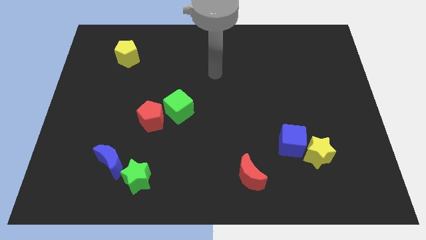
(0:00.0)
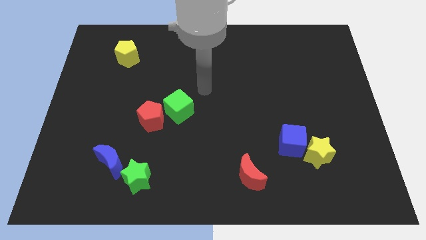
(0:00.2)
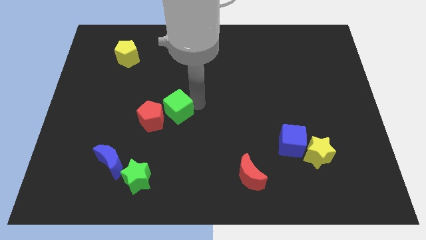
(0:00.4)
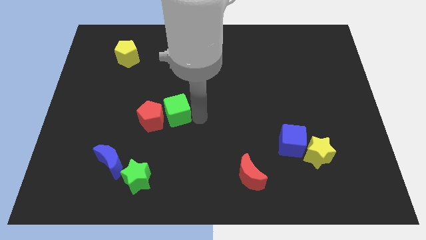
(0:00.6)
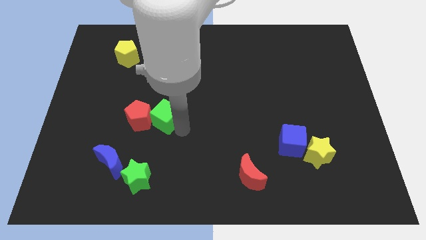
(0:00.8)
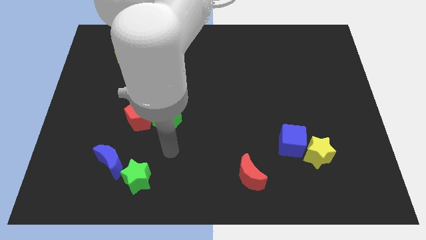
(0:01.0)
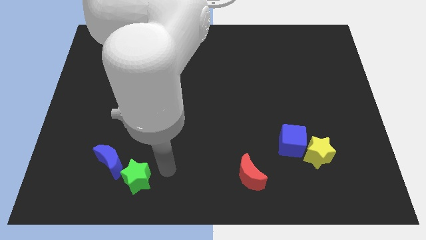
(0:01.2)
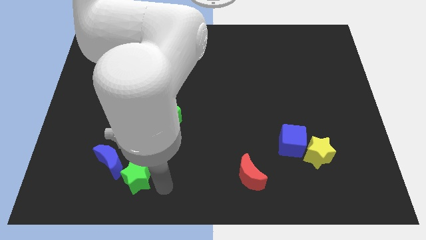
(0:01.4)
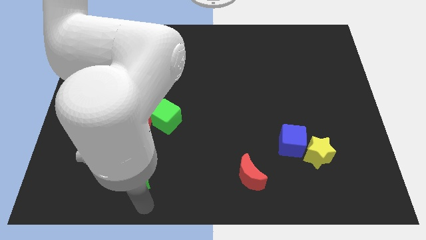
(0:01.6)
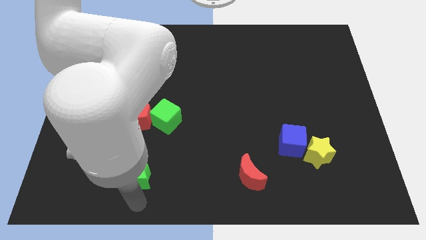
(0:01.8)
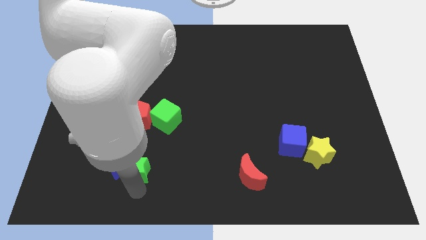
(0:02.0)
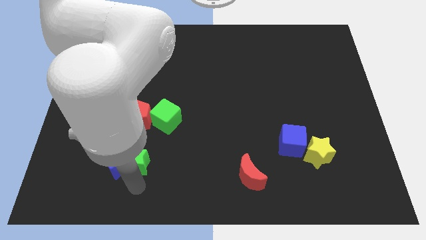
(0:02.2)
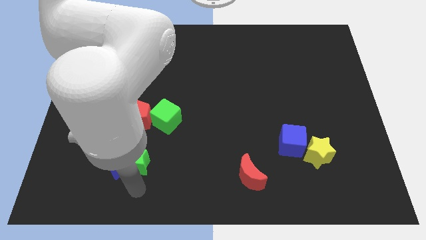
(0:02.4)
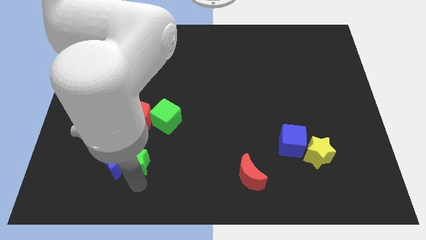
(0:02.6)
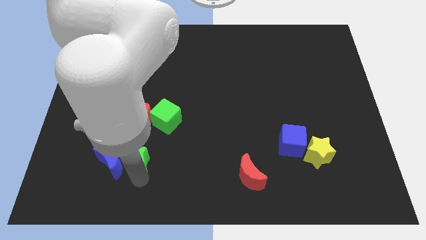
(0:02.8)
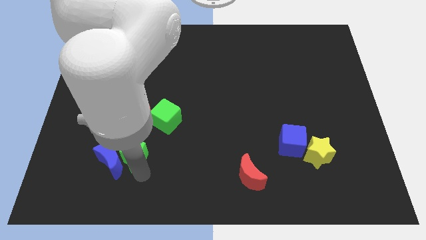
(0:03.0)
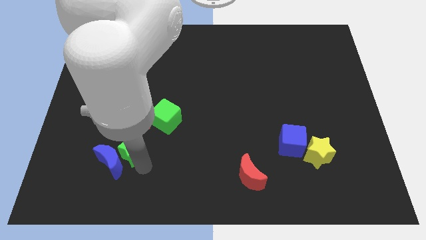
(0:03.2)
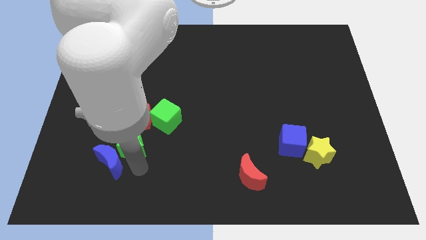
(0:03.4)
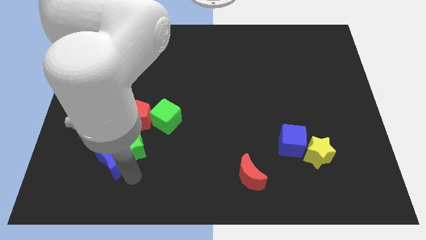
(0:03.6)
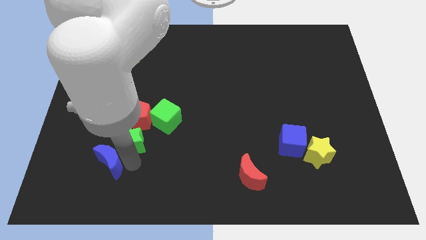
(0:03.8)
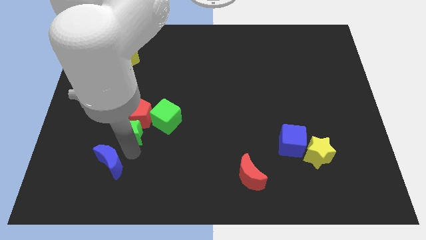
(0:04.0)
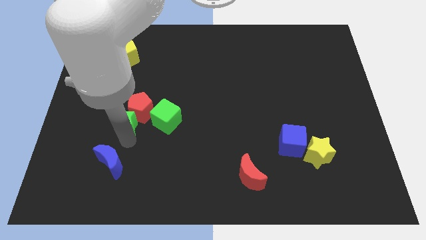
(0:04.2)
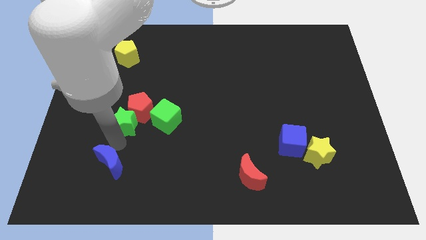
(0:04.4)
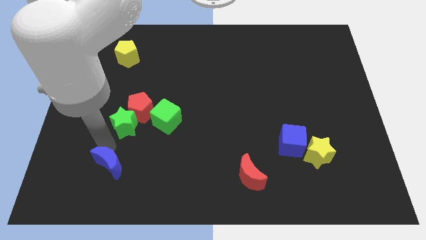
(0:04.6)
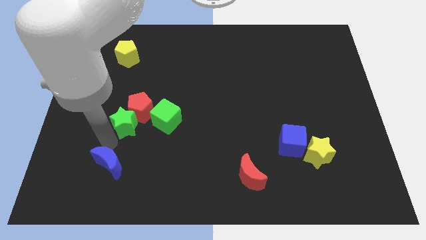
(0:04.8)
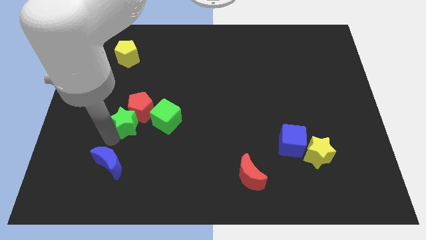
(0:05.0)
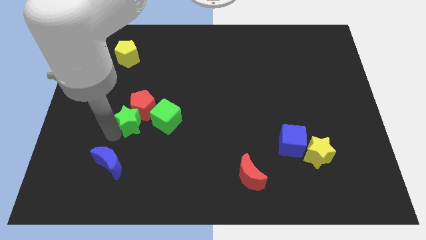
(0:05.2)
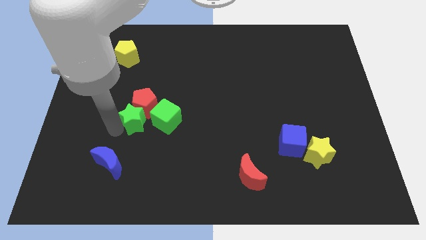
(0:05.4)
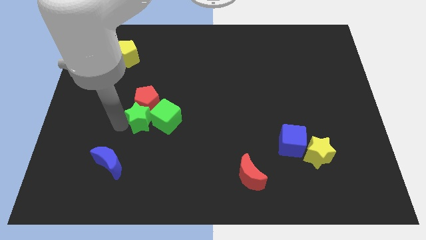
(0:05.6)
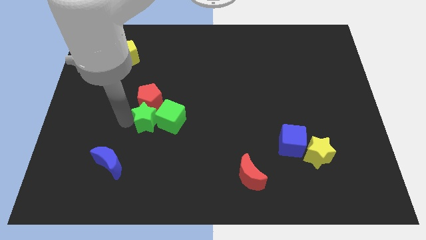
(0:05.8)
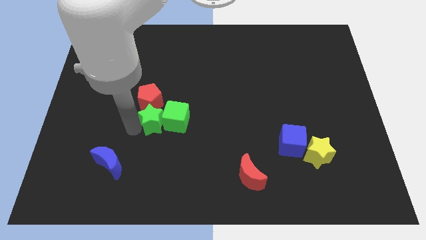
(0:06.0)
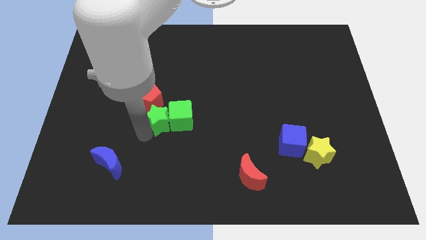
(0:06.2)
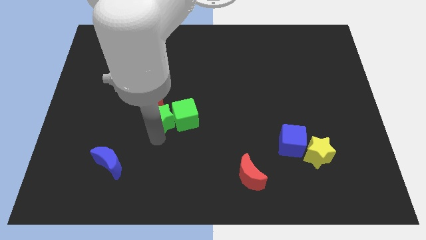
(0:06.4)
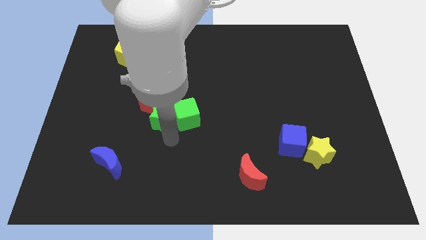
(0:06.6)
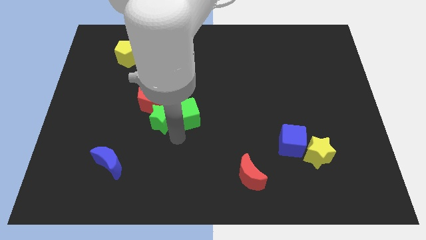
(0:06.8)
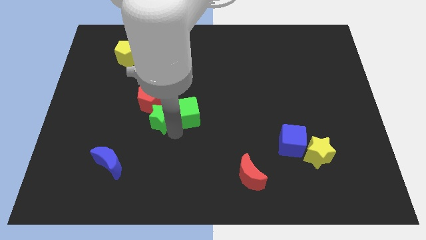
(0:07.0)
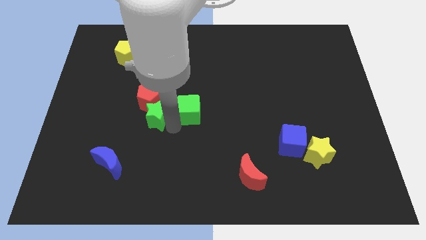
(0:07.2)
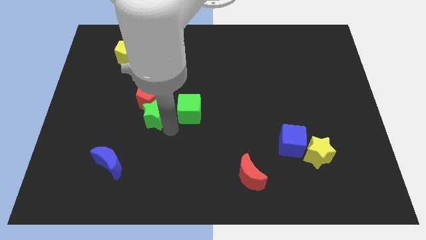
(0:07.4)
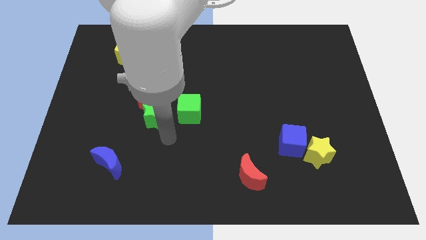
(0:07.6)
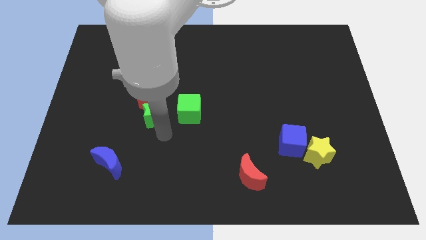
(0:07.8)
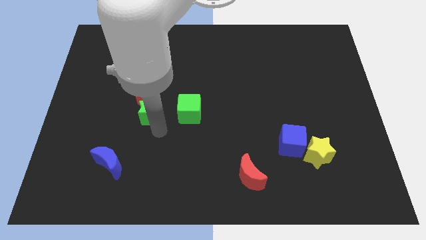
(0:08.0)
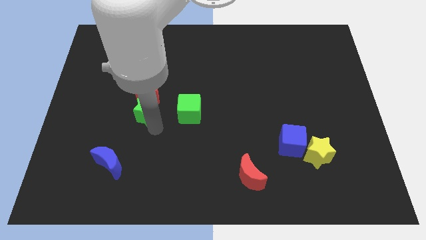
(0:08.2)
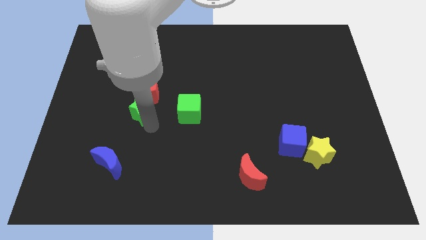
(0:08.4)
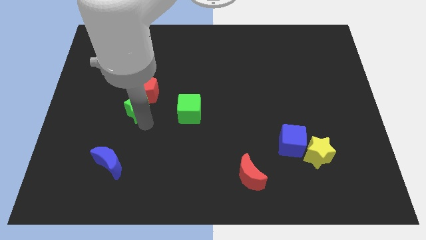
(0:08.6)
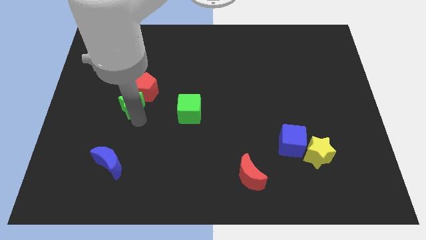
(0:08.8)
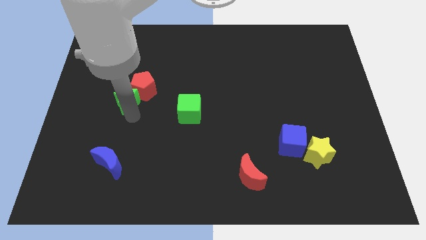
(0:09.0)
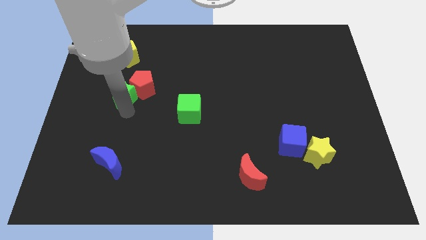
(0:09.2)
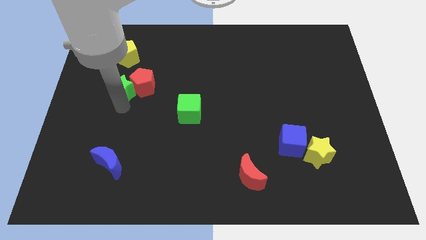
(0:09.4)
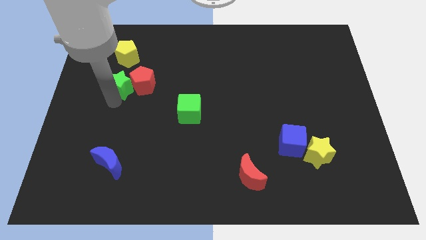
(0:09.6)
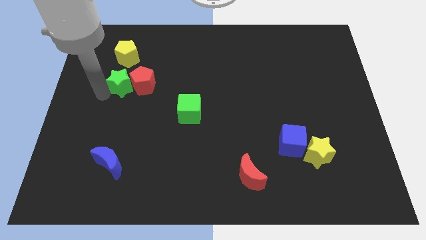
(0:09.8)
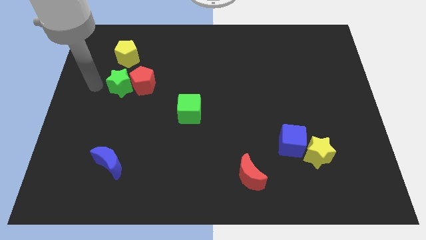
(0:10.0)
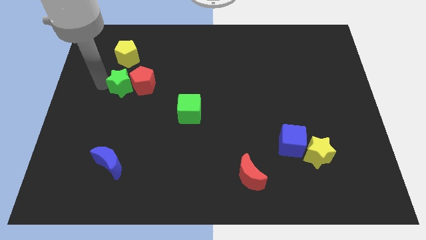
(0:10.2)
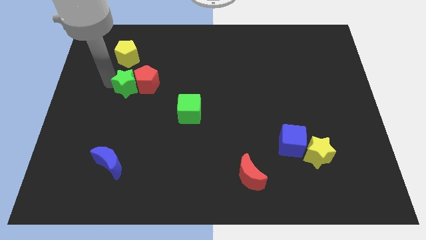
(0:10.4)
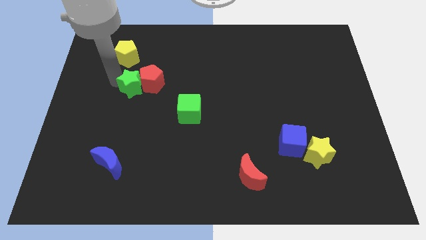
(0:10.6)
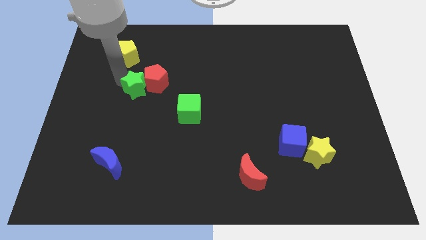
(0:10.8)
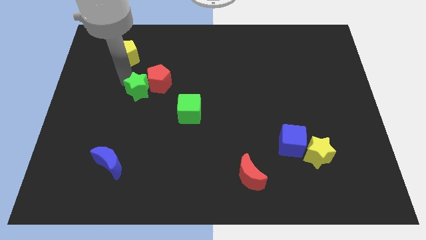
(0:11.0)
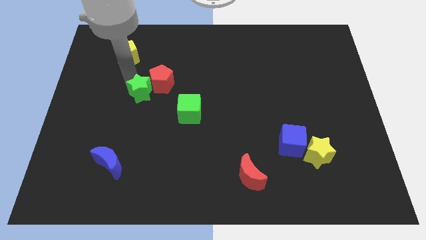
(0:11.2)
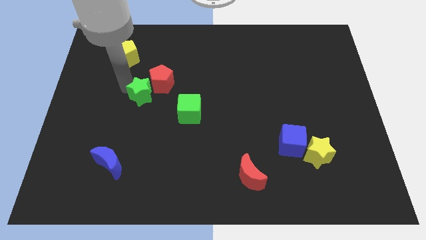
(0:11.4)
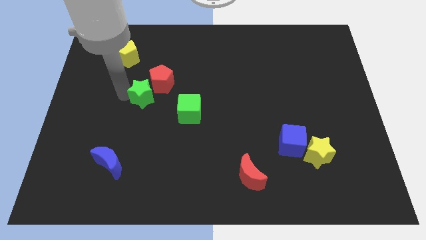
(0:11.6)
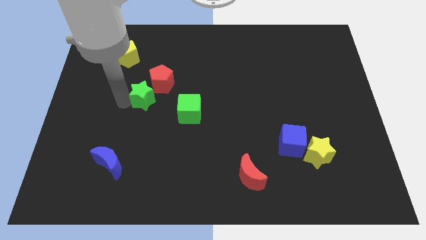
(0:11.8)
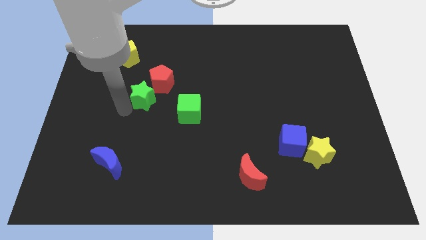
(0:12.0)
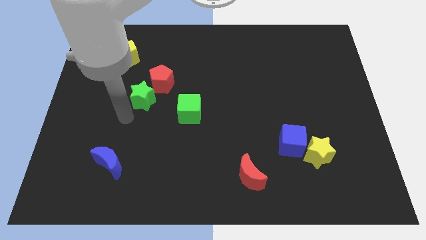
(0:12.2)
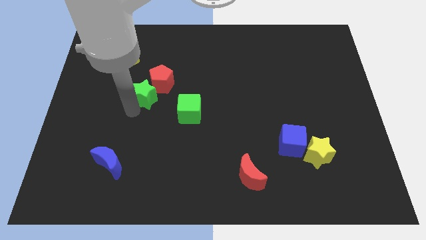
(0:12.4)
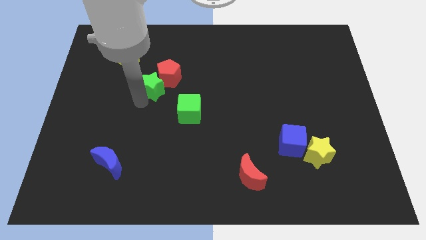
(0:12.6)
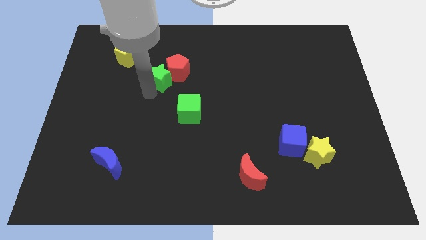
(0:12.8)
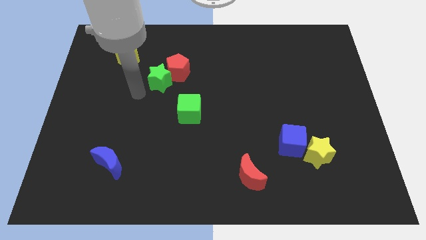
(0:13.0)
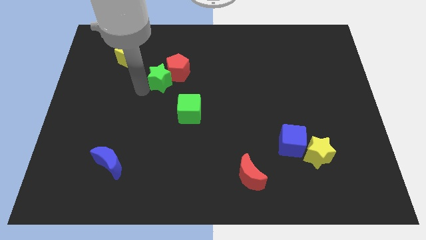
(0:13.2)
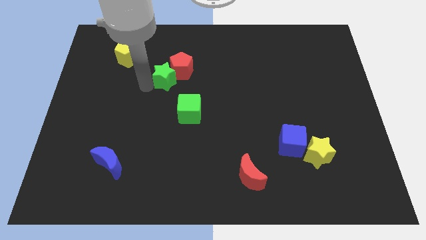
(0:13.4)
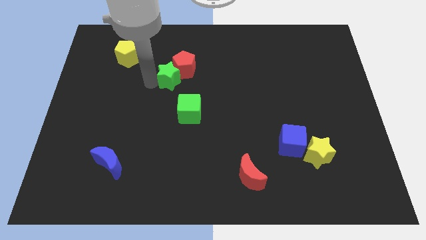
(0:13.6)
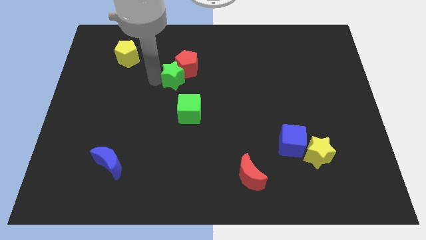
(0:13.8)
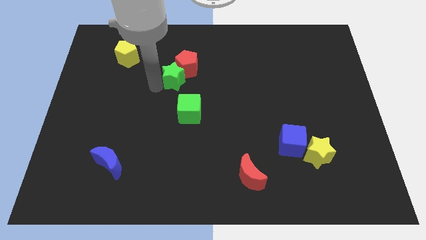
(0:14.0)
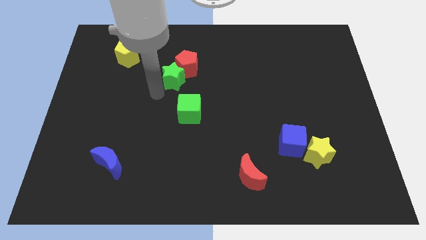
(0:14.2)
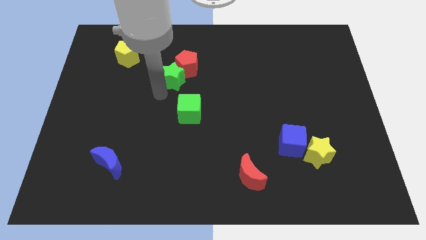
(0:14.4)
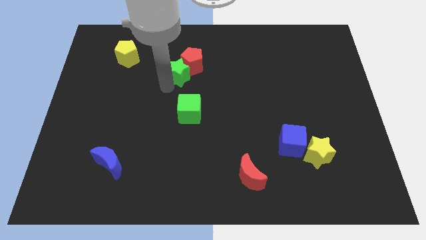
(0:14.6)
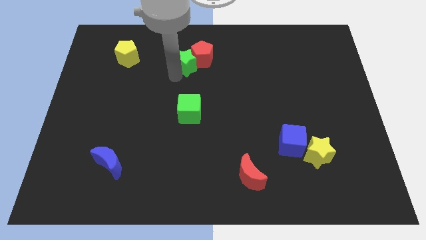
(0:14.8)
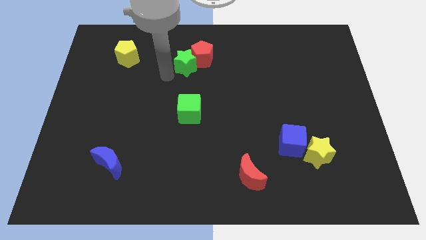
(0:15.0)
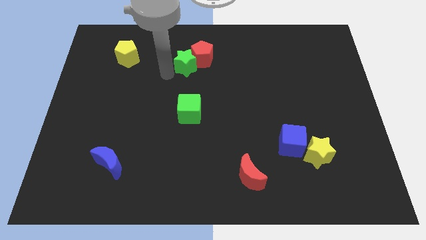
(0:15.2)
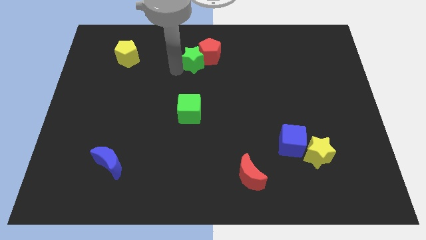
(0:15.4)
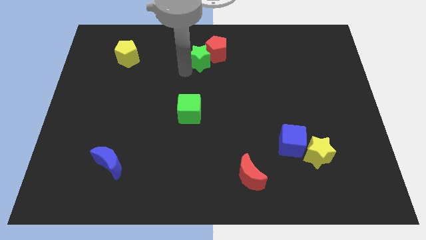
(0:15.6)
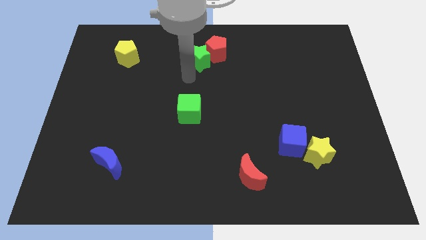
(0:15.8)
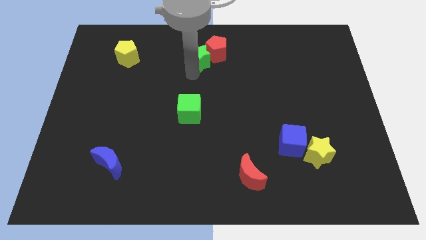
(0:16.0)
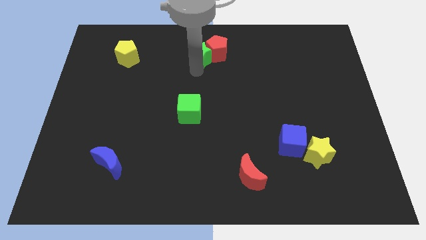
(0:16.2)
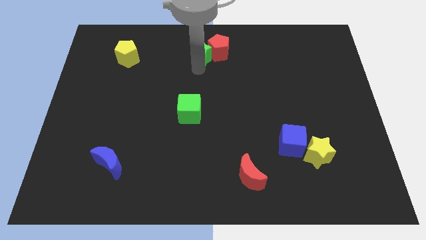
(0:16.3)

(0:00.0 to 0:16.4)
put the green star to the top side
